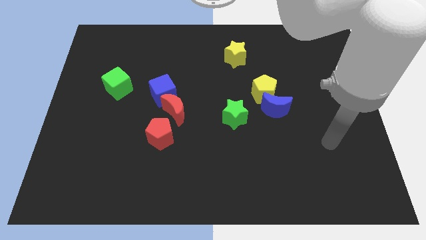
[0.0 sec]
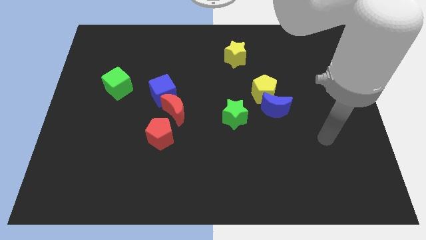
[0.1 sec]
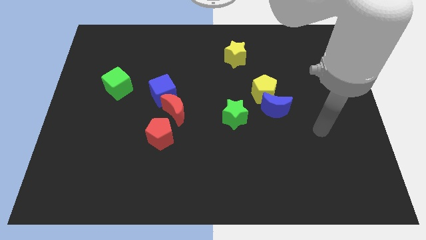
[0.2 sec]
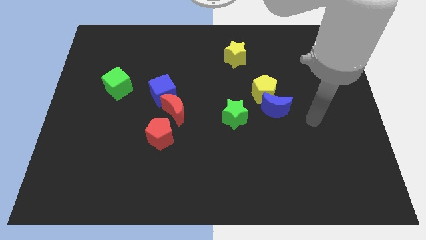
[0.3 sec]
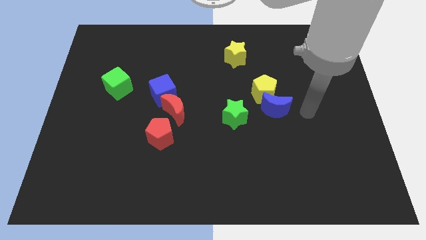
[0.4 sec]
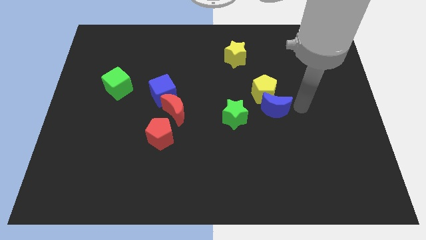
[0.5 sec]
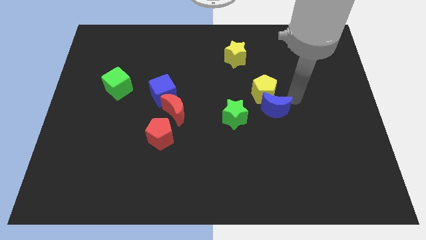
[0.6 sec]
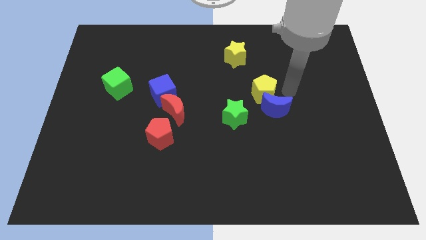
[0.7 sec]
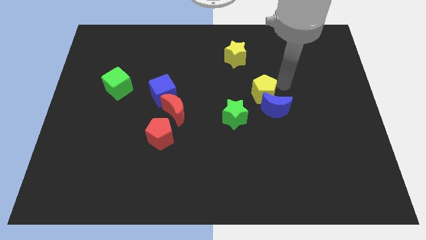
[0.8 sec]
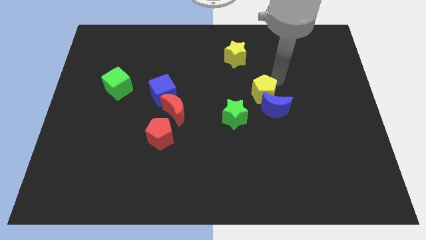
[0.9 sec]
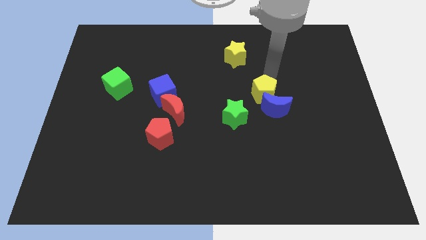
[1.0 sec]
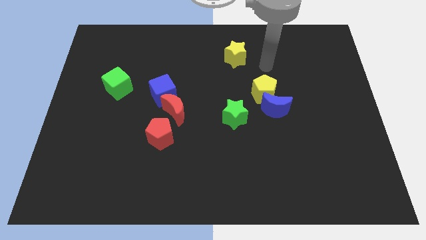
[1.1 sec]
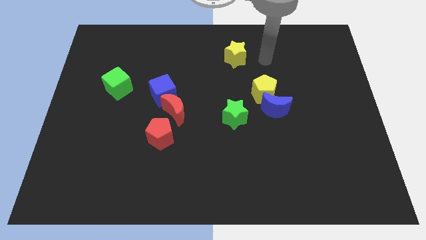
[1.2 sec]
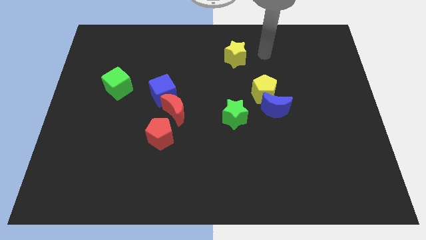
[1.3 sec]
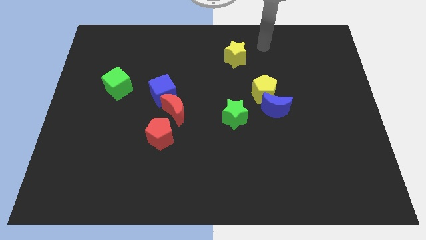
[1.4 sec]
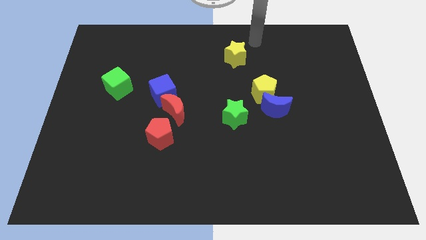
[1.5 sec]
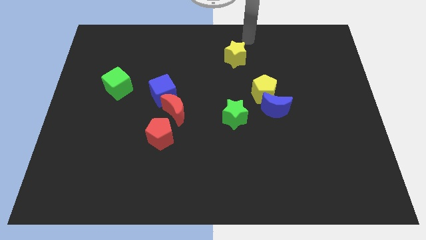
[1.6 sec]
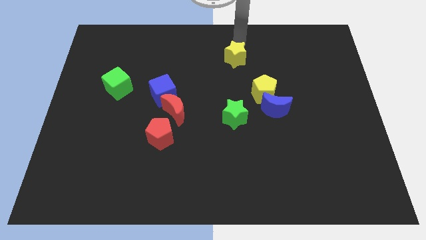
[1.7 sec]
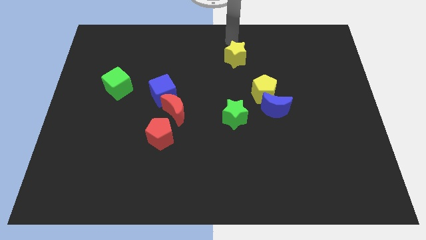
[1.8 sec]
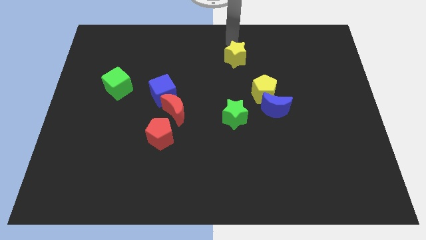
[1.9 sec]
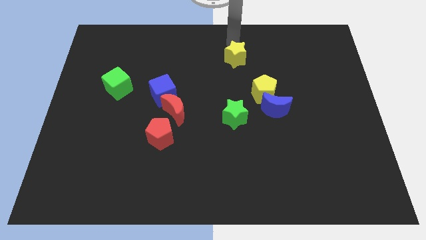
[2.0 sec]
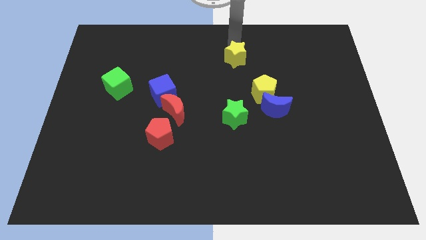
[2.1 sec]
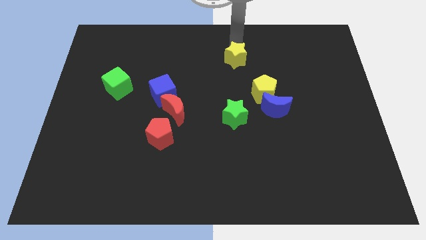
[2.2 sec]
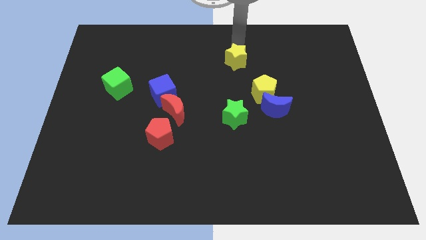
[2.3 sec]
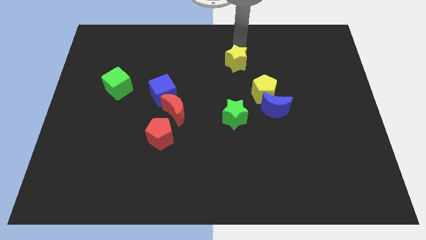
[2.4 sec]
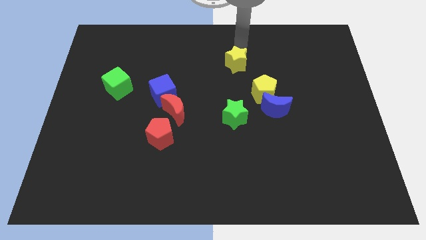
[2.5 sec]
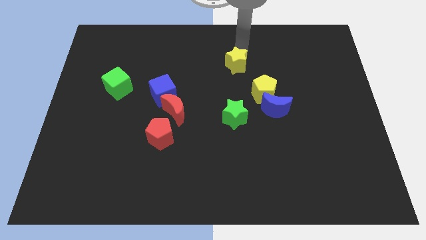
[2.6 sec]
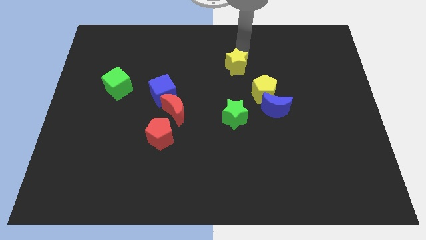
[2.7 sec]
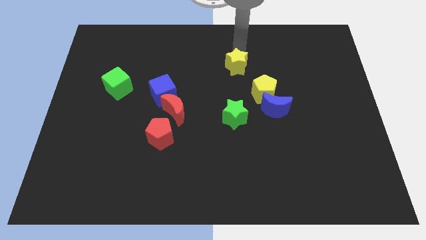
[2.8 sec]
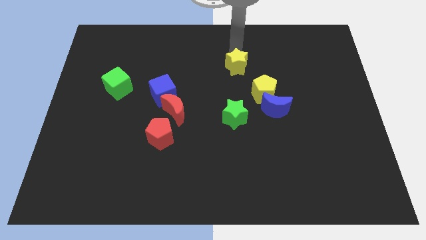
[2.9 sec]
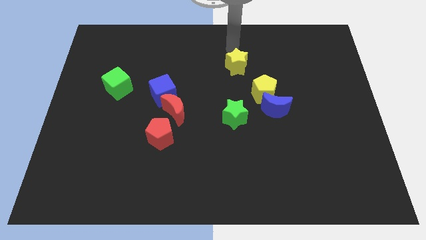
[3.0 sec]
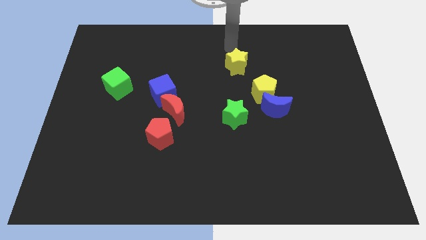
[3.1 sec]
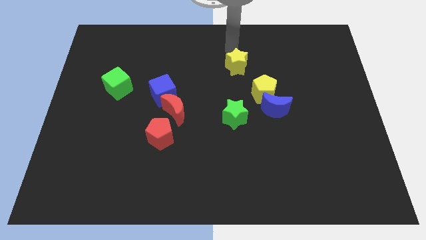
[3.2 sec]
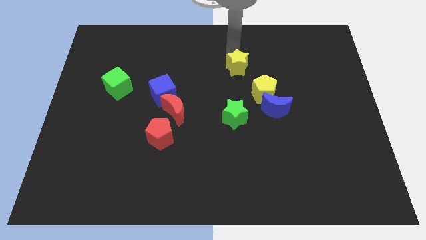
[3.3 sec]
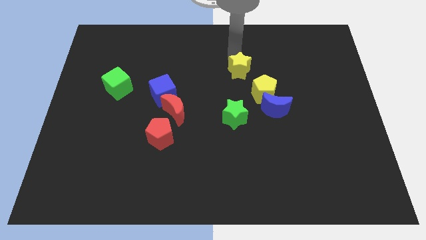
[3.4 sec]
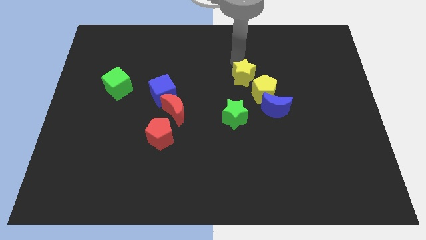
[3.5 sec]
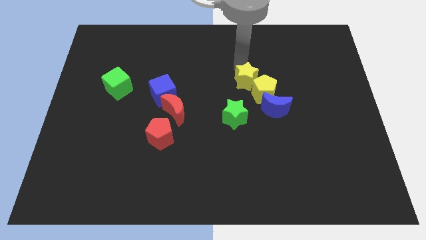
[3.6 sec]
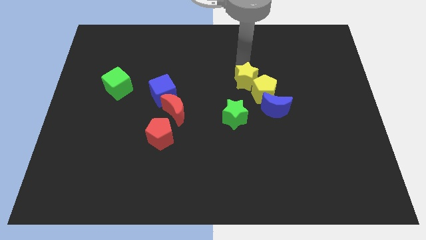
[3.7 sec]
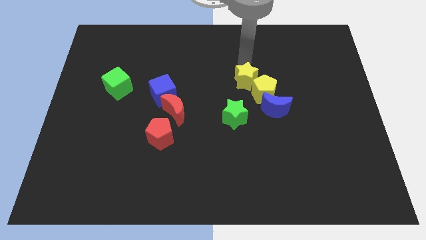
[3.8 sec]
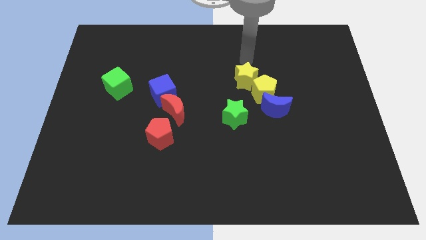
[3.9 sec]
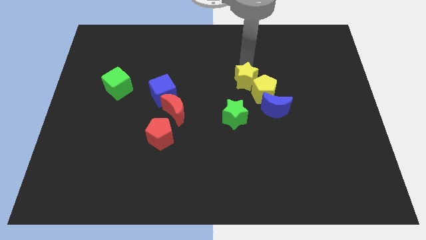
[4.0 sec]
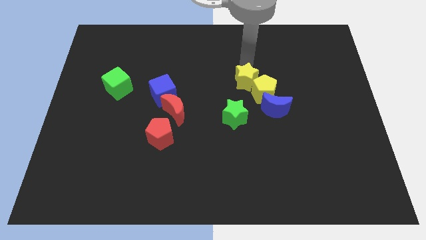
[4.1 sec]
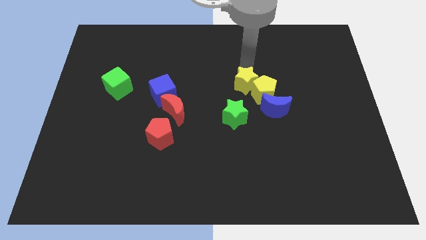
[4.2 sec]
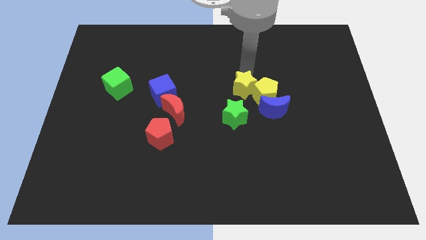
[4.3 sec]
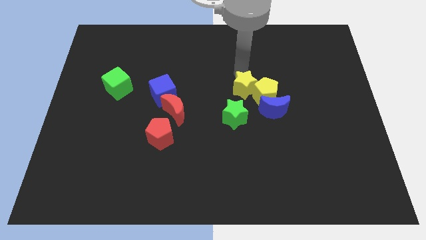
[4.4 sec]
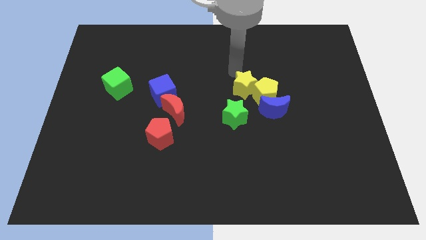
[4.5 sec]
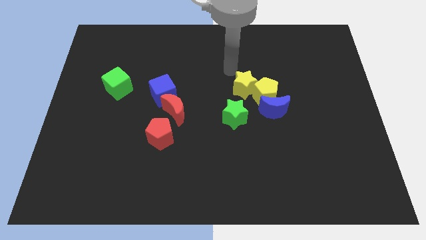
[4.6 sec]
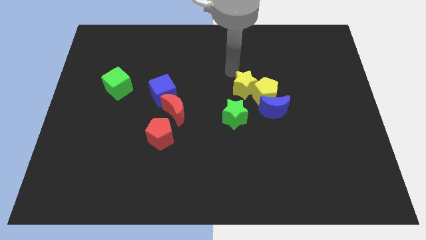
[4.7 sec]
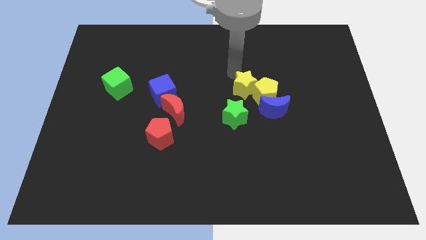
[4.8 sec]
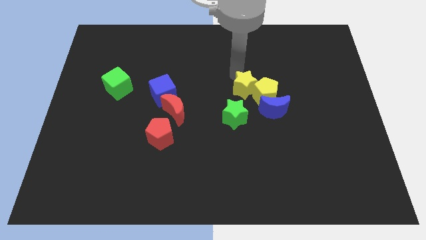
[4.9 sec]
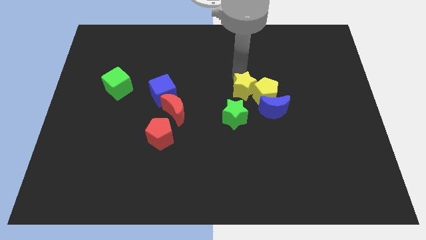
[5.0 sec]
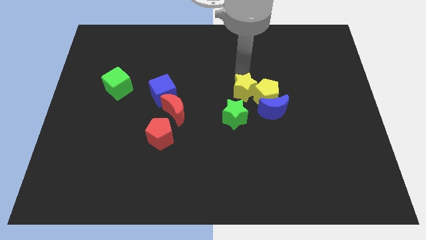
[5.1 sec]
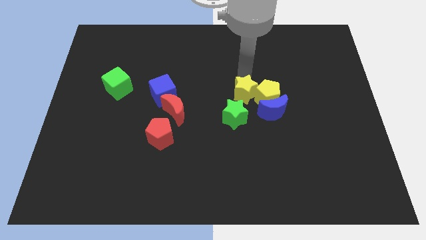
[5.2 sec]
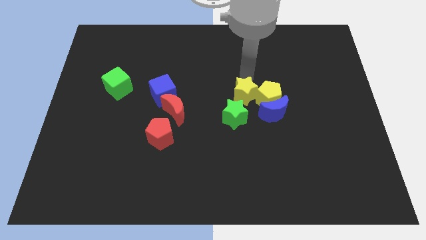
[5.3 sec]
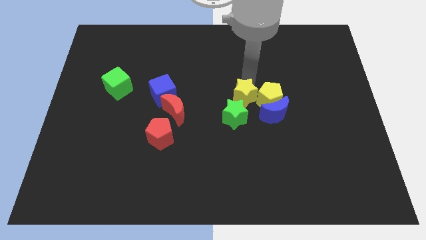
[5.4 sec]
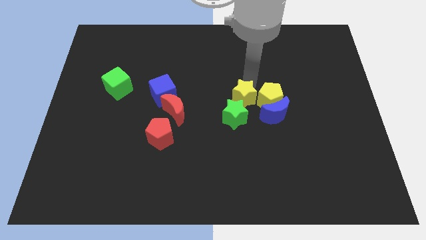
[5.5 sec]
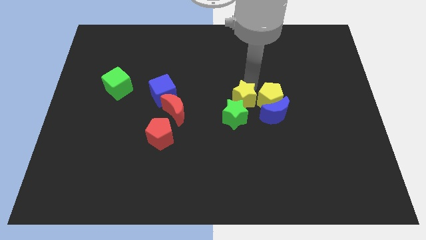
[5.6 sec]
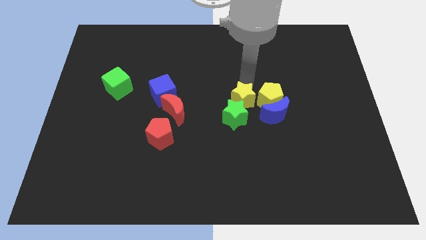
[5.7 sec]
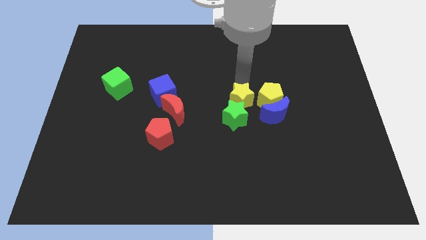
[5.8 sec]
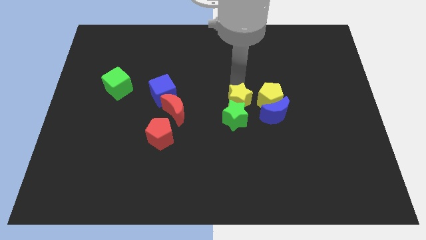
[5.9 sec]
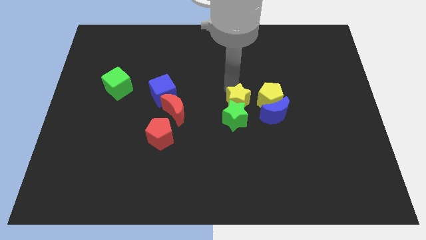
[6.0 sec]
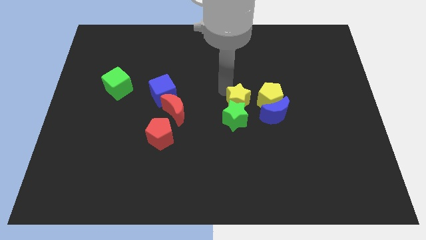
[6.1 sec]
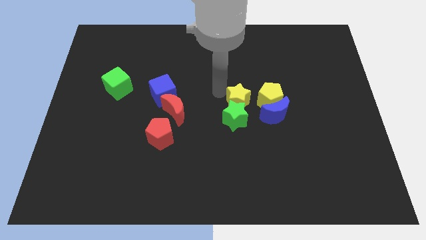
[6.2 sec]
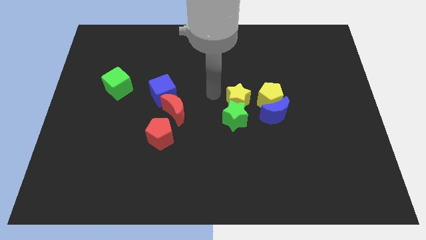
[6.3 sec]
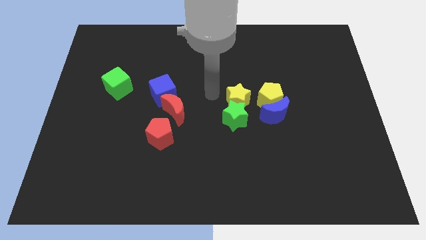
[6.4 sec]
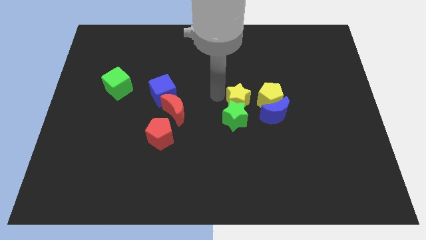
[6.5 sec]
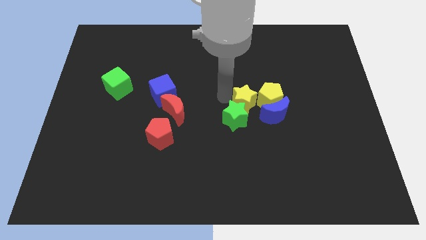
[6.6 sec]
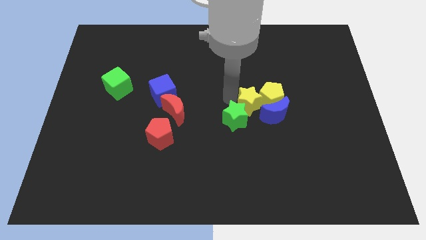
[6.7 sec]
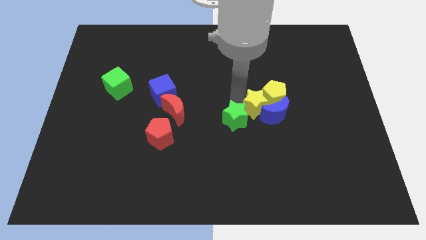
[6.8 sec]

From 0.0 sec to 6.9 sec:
put the yellow star to the blue moon
